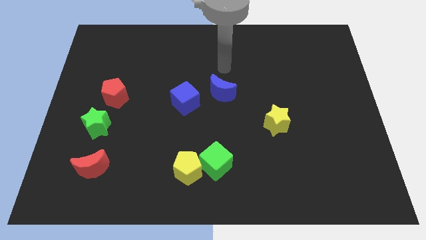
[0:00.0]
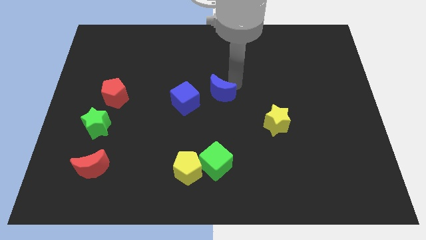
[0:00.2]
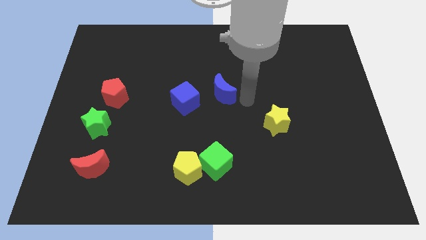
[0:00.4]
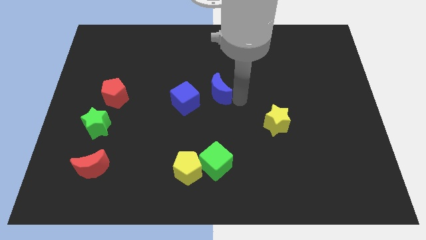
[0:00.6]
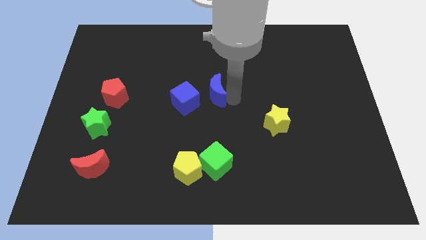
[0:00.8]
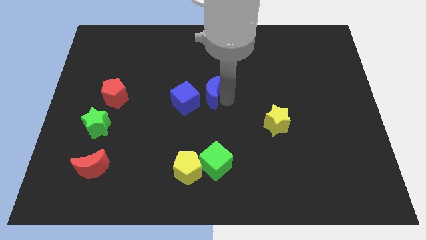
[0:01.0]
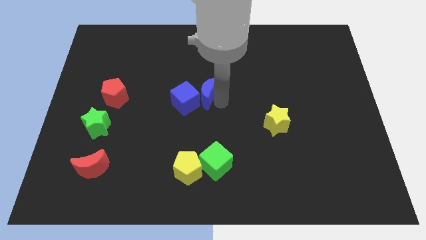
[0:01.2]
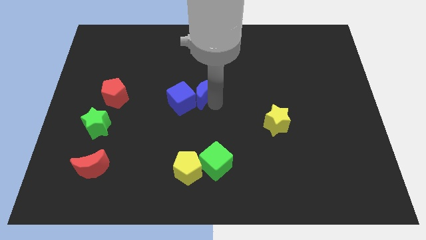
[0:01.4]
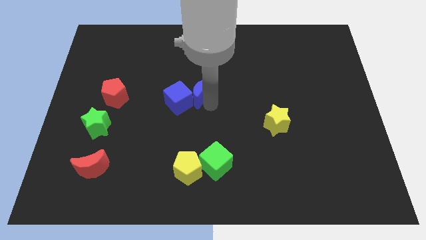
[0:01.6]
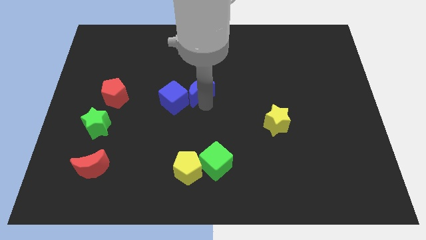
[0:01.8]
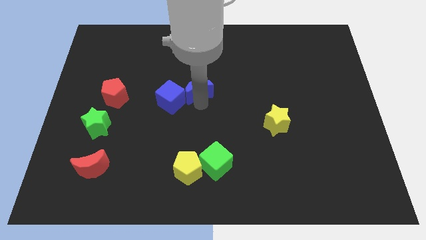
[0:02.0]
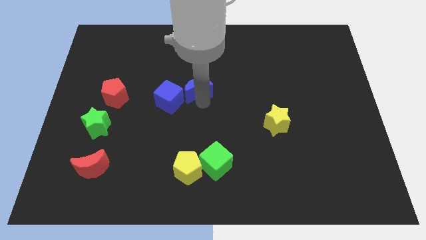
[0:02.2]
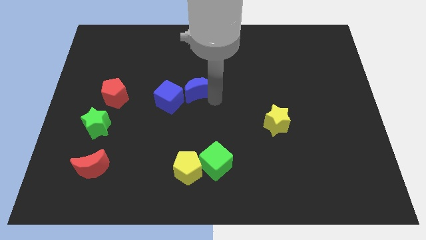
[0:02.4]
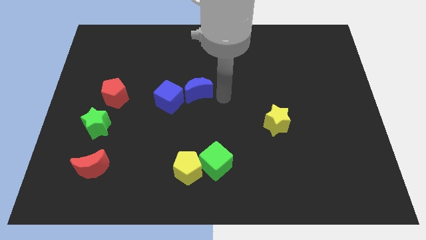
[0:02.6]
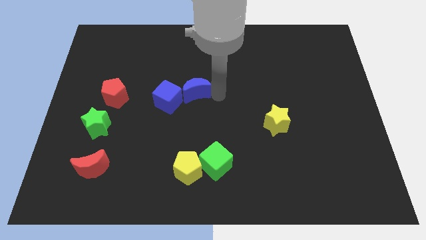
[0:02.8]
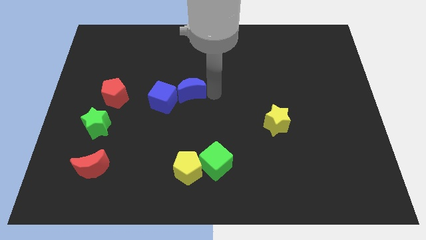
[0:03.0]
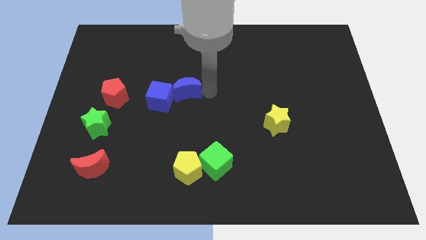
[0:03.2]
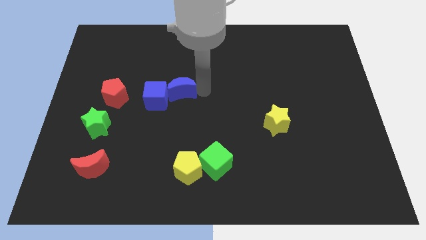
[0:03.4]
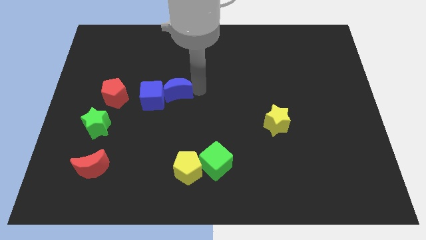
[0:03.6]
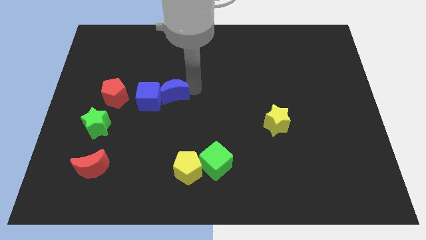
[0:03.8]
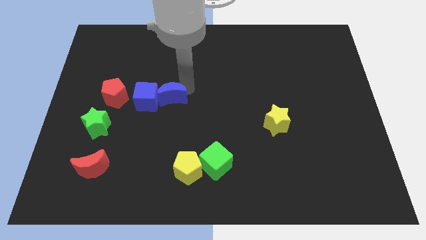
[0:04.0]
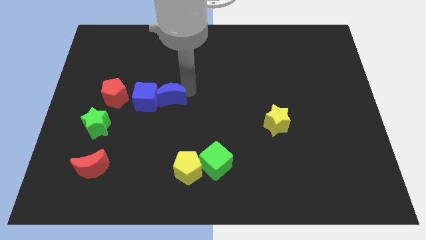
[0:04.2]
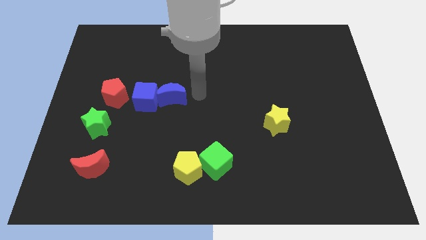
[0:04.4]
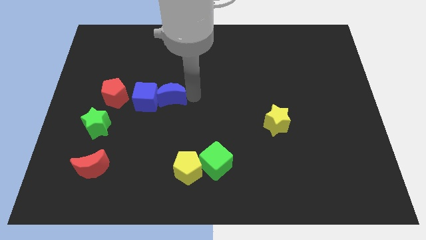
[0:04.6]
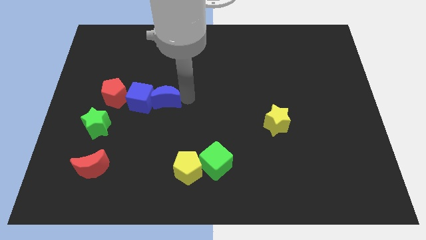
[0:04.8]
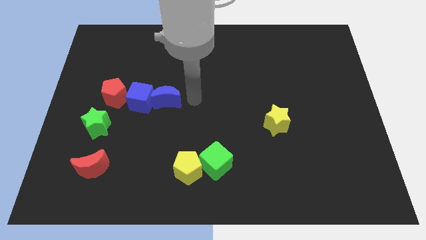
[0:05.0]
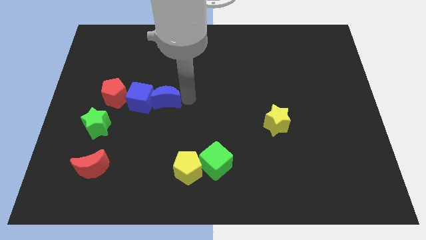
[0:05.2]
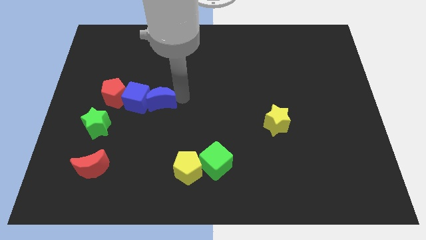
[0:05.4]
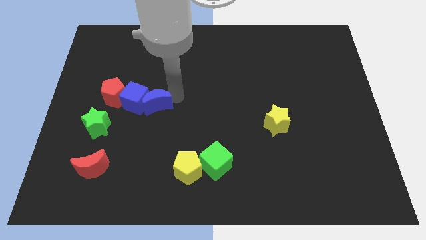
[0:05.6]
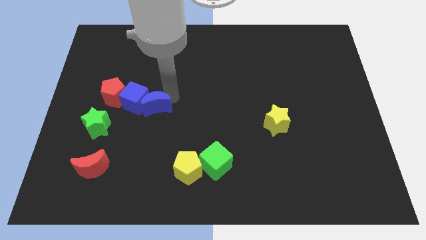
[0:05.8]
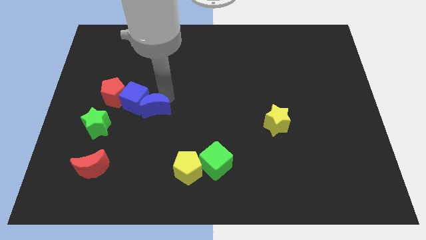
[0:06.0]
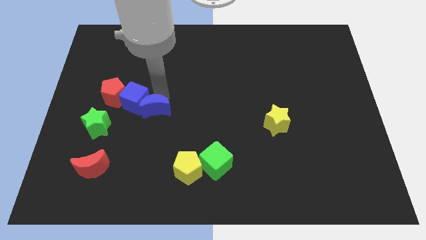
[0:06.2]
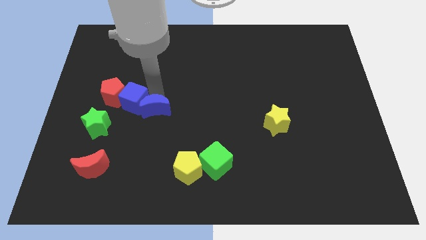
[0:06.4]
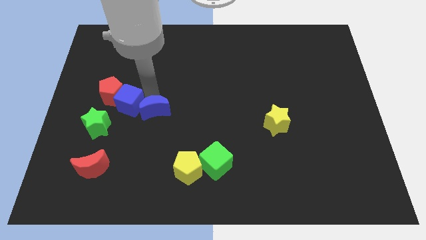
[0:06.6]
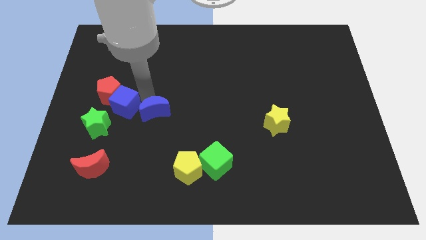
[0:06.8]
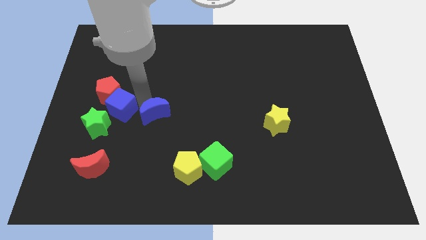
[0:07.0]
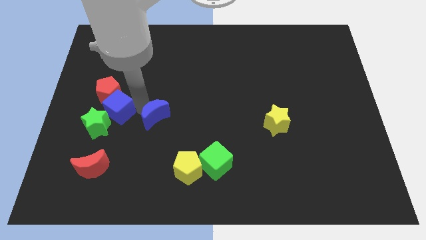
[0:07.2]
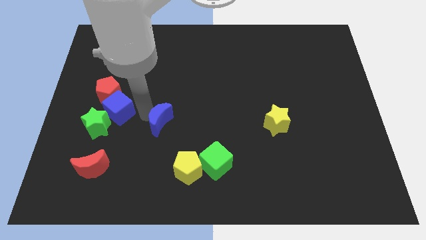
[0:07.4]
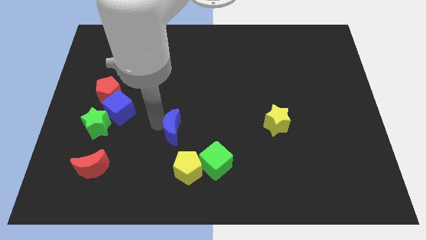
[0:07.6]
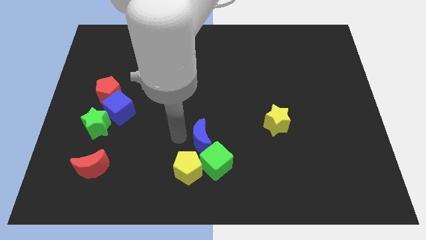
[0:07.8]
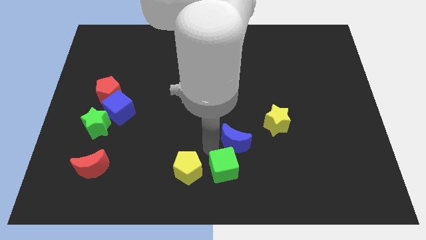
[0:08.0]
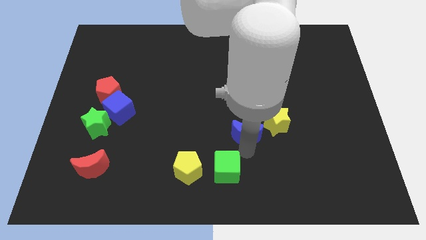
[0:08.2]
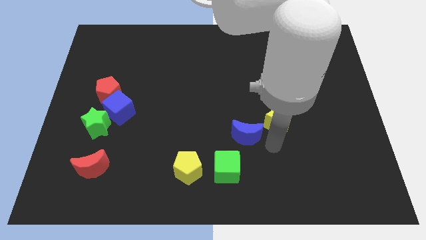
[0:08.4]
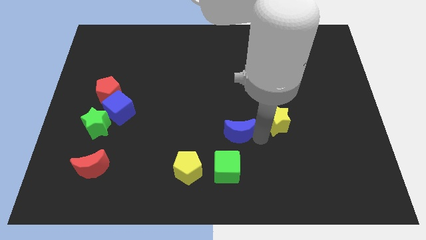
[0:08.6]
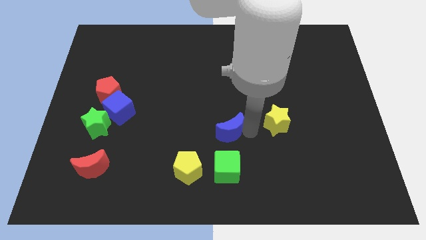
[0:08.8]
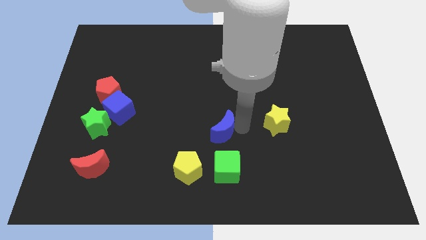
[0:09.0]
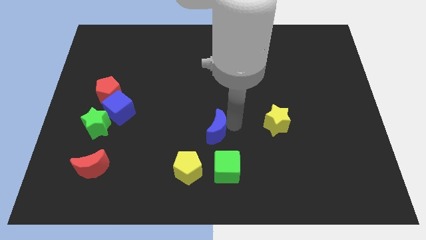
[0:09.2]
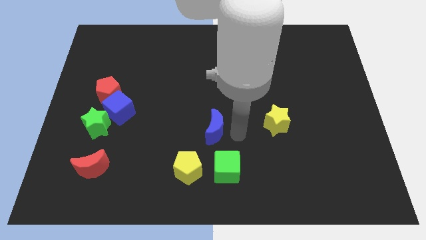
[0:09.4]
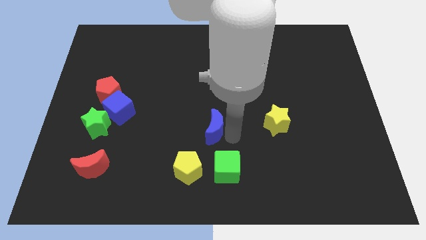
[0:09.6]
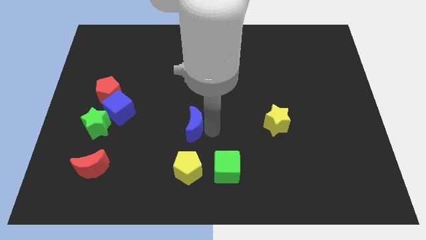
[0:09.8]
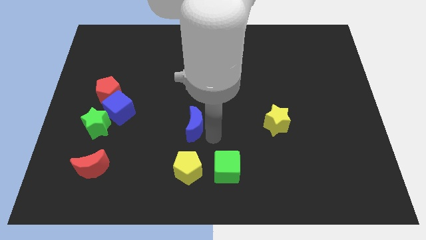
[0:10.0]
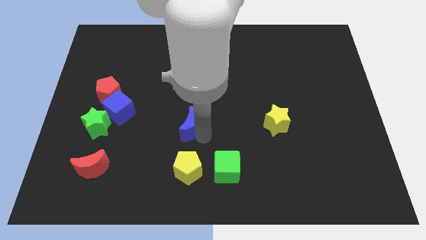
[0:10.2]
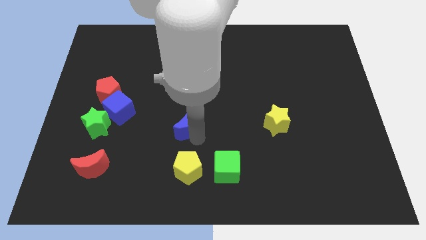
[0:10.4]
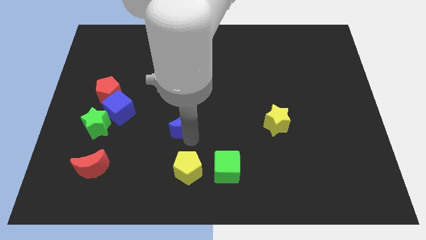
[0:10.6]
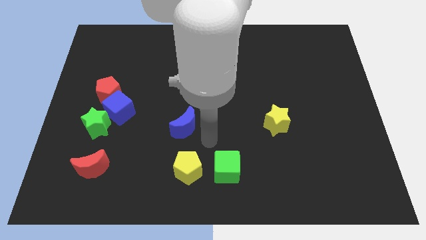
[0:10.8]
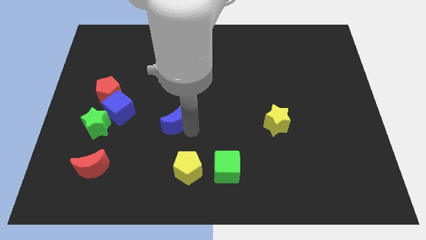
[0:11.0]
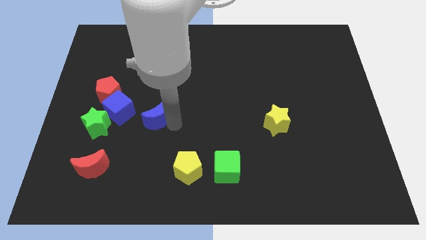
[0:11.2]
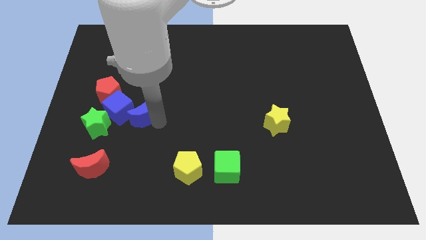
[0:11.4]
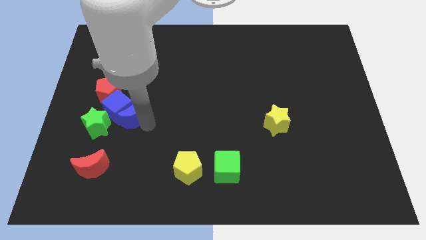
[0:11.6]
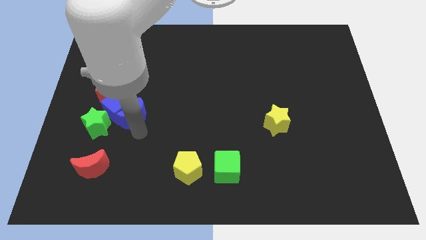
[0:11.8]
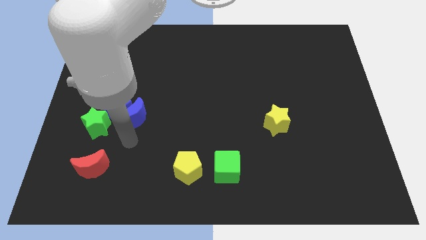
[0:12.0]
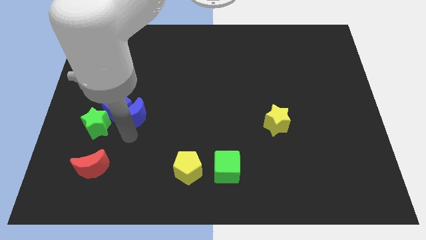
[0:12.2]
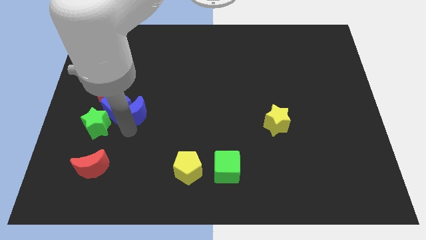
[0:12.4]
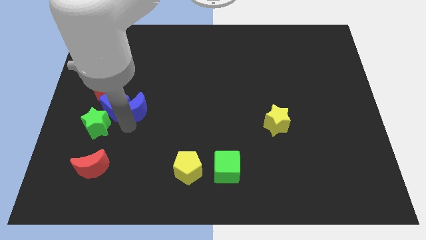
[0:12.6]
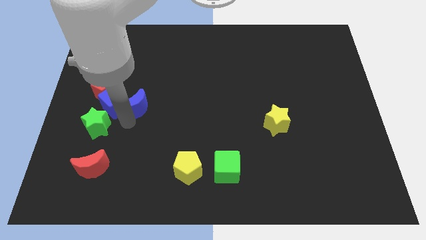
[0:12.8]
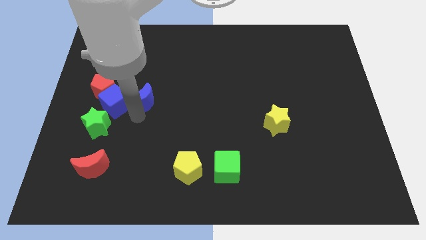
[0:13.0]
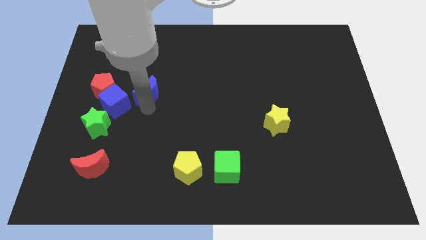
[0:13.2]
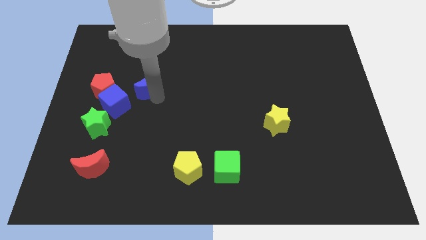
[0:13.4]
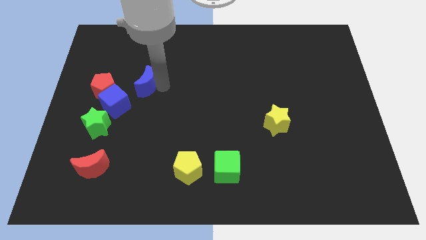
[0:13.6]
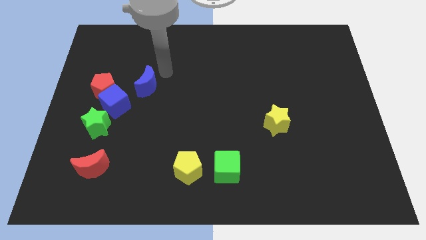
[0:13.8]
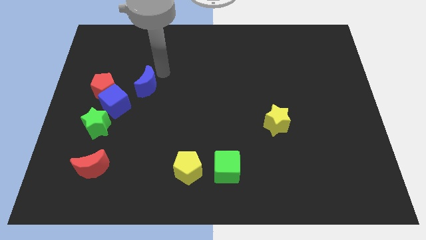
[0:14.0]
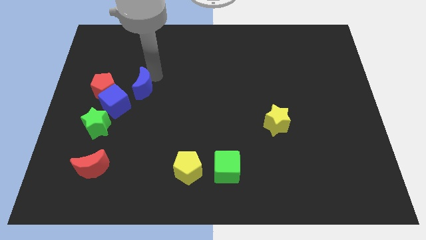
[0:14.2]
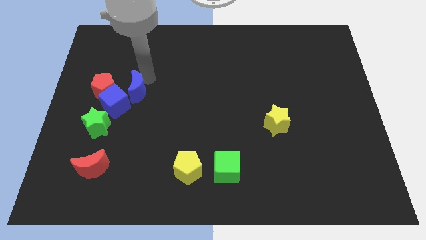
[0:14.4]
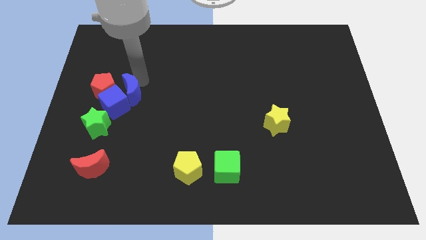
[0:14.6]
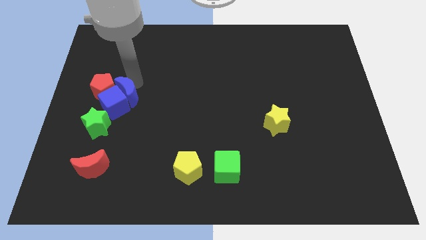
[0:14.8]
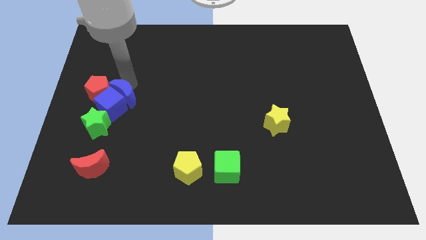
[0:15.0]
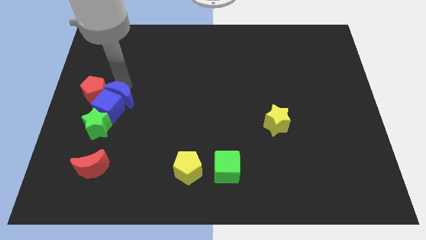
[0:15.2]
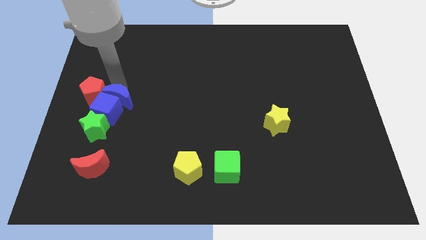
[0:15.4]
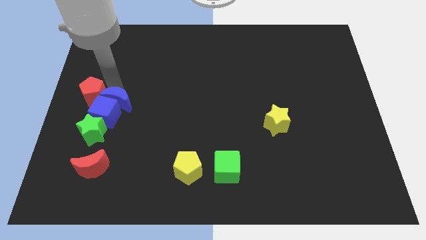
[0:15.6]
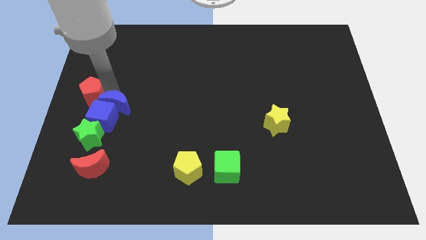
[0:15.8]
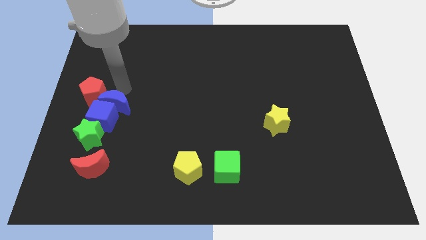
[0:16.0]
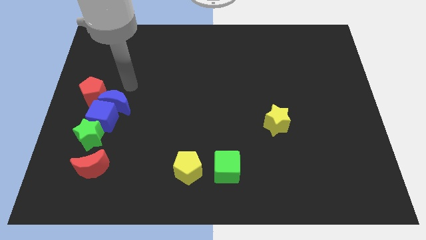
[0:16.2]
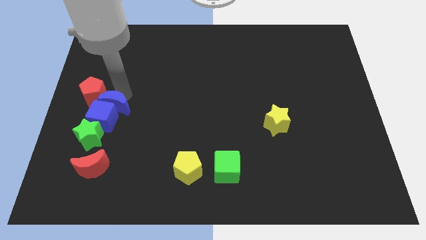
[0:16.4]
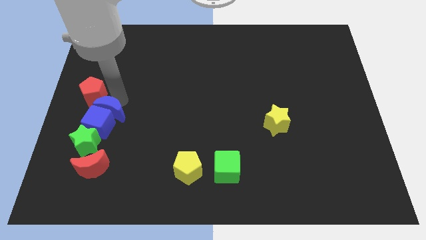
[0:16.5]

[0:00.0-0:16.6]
put the blue moon to the top side of the red moon
